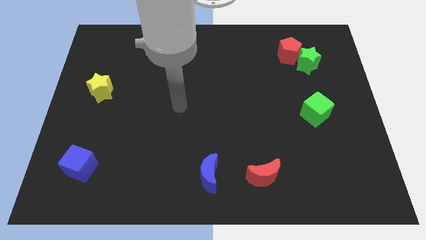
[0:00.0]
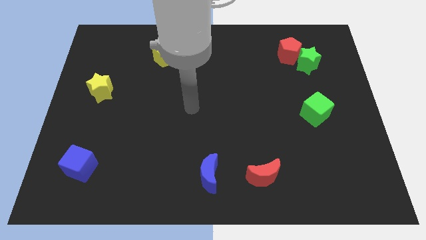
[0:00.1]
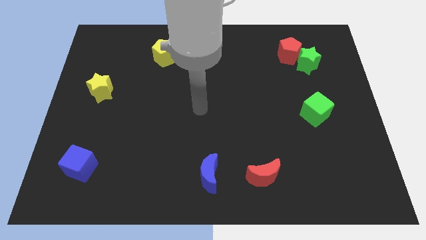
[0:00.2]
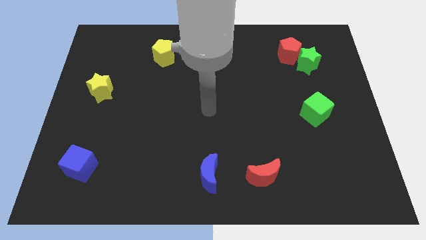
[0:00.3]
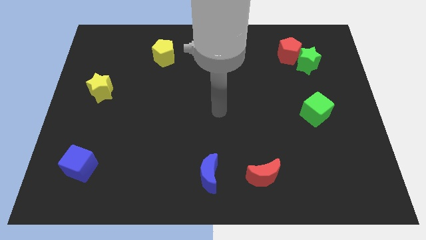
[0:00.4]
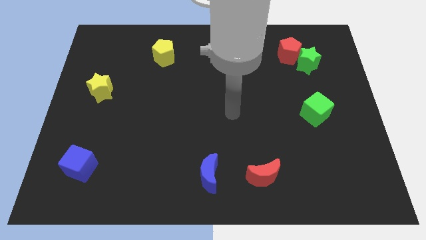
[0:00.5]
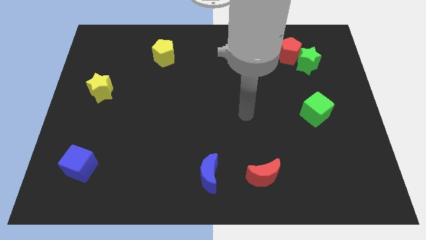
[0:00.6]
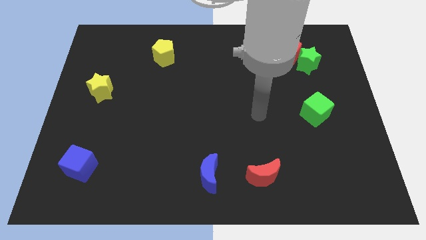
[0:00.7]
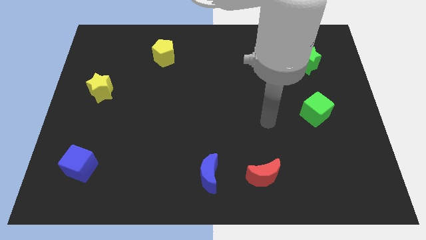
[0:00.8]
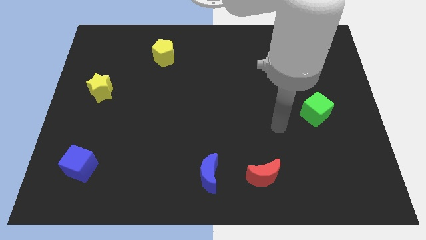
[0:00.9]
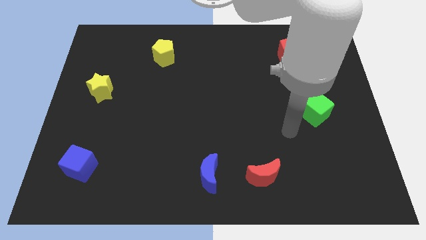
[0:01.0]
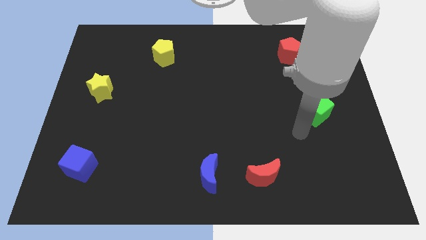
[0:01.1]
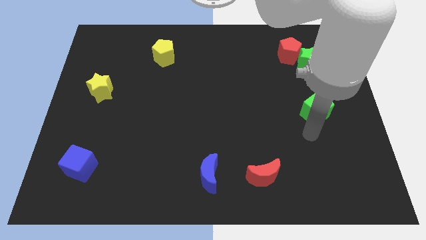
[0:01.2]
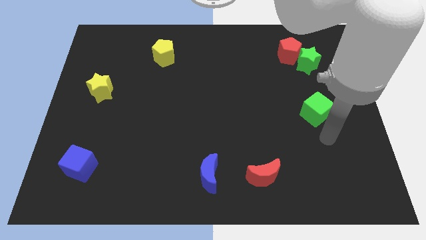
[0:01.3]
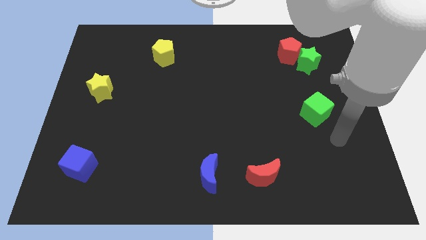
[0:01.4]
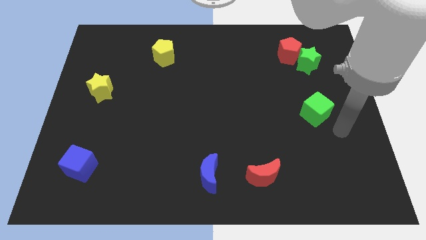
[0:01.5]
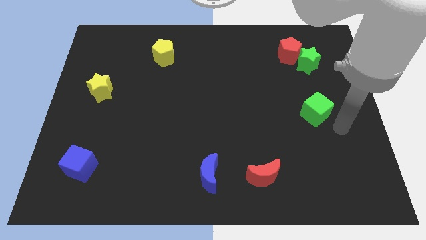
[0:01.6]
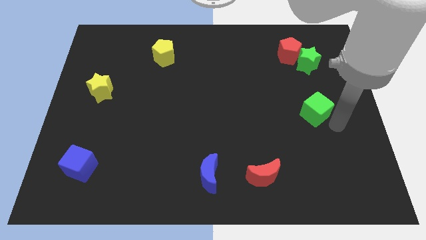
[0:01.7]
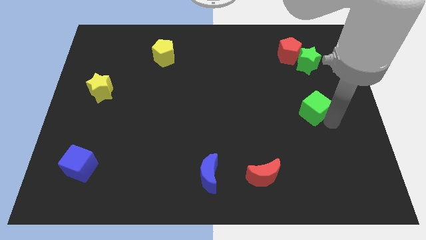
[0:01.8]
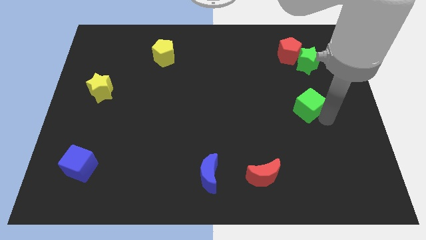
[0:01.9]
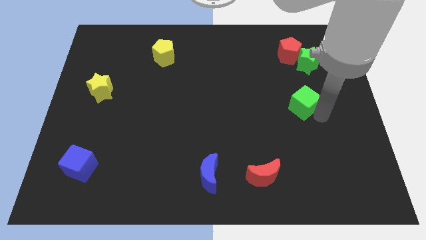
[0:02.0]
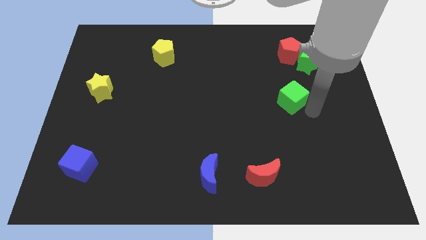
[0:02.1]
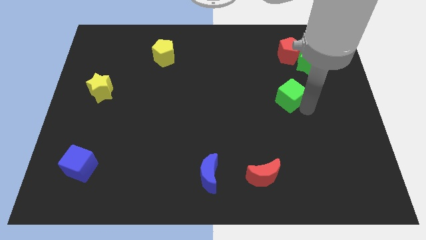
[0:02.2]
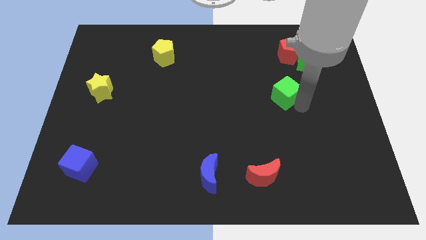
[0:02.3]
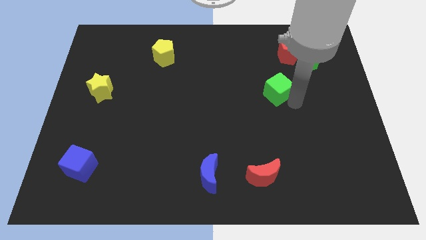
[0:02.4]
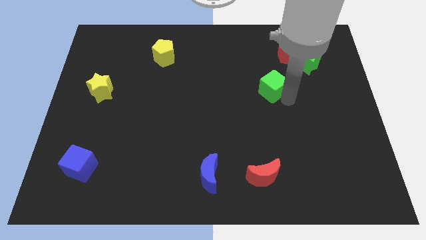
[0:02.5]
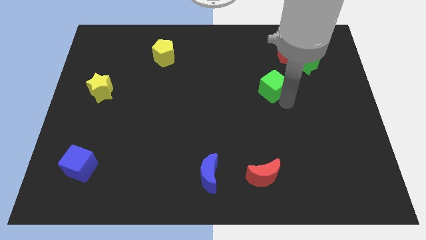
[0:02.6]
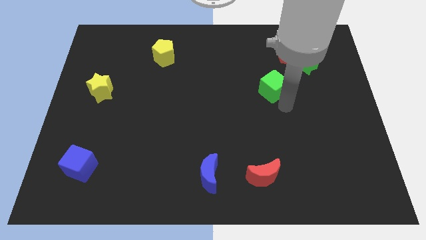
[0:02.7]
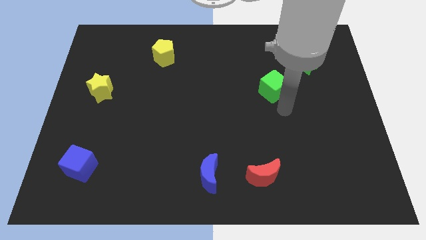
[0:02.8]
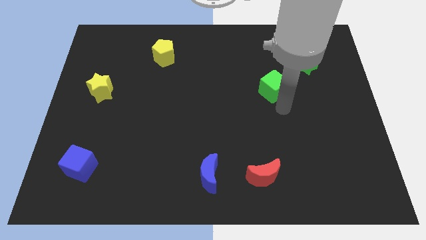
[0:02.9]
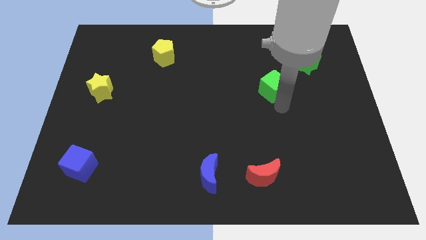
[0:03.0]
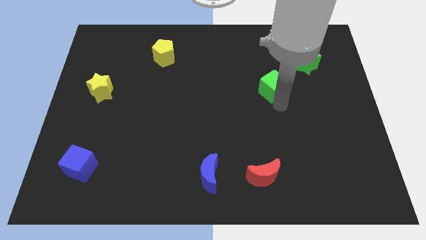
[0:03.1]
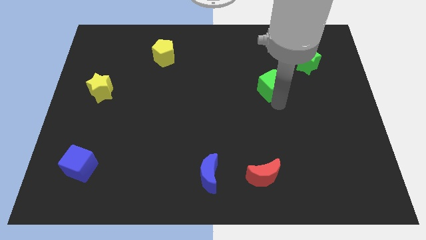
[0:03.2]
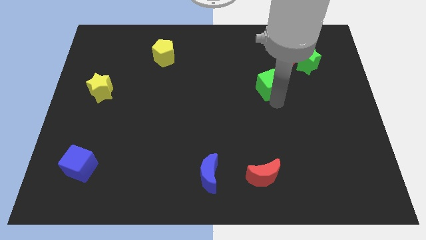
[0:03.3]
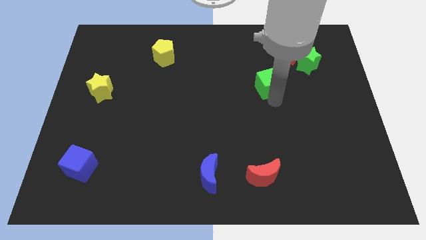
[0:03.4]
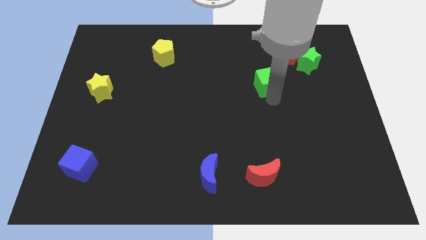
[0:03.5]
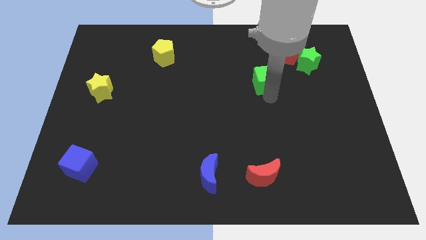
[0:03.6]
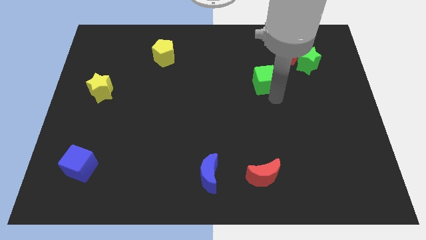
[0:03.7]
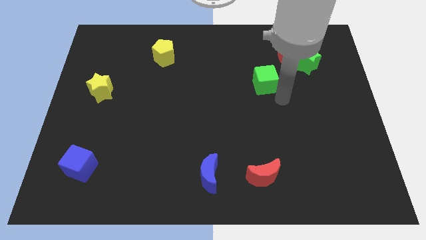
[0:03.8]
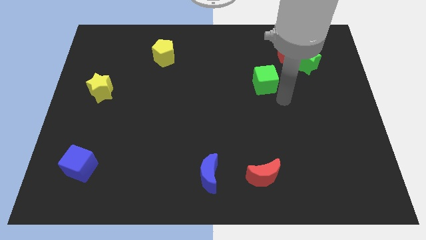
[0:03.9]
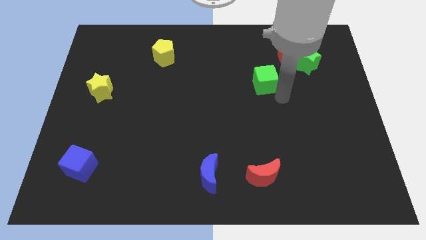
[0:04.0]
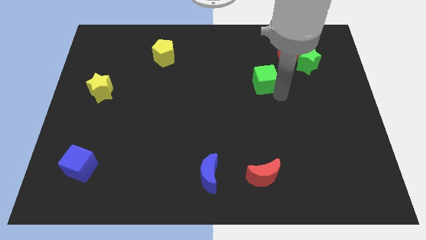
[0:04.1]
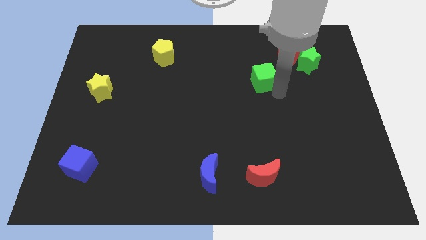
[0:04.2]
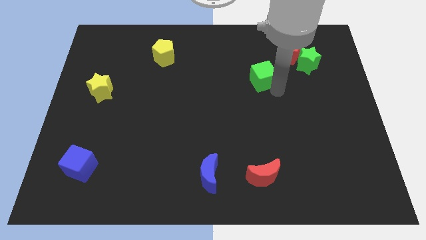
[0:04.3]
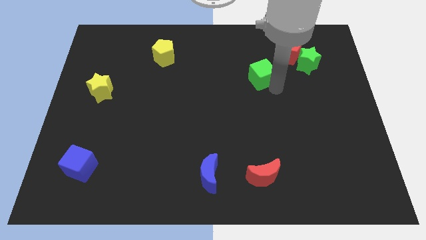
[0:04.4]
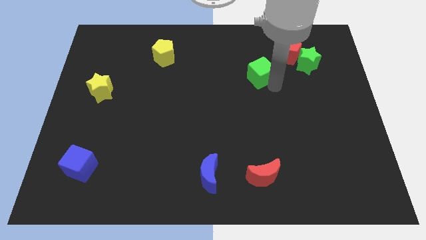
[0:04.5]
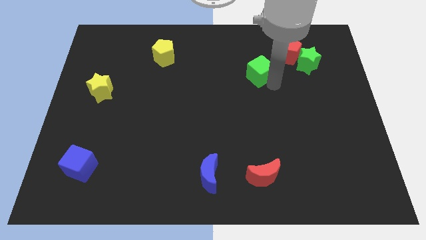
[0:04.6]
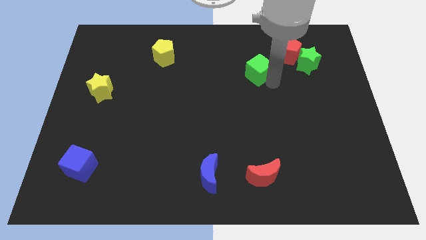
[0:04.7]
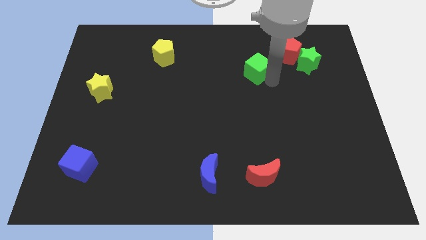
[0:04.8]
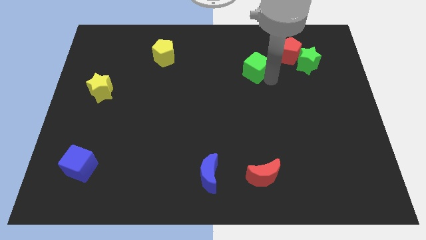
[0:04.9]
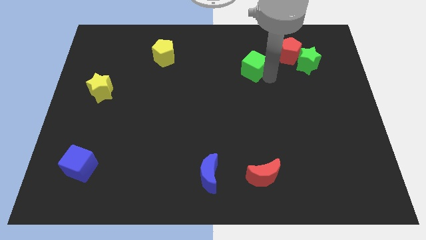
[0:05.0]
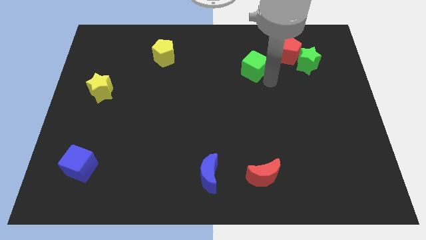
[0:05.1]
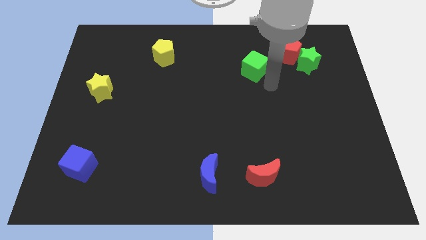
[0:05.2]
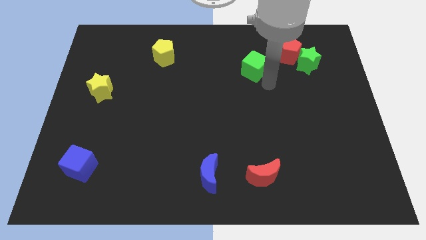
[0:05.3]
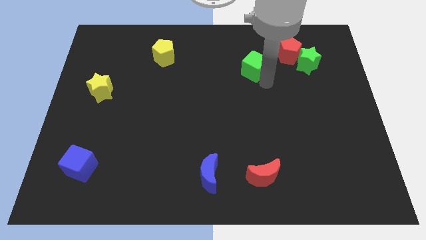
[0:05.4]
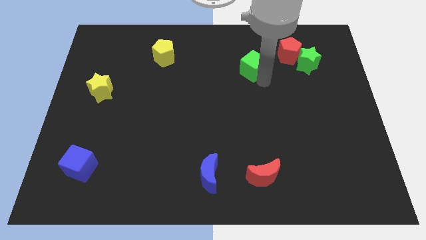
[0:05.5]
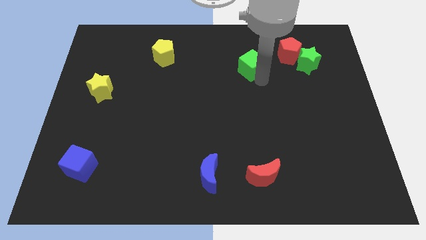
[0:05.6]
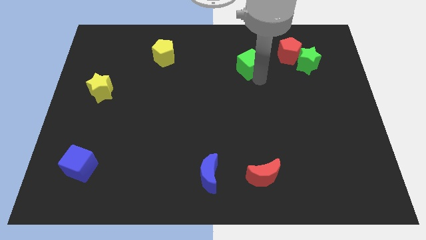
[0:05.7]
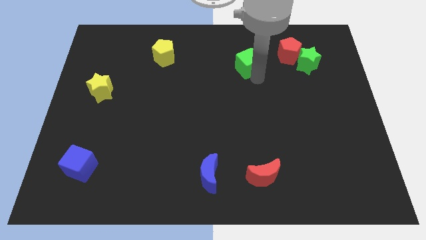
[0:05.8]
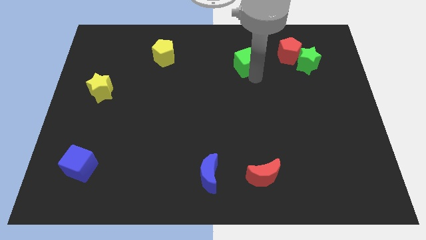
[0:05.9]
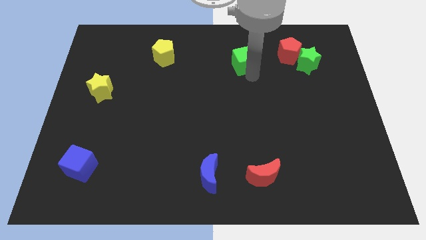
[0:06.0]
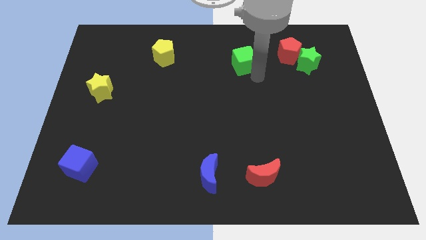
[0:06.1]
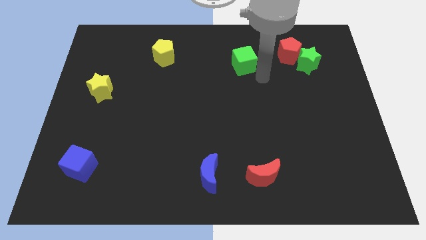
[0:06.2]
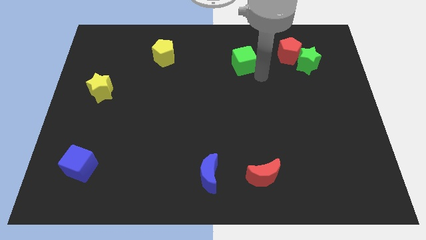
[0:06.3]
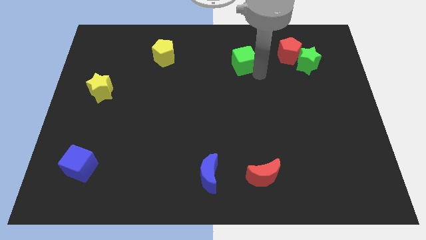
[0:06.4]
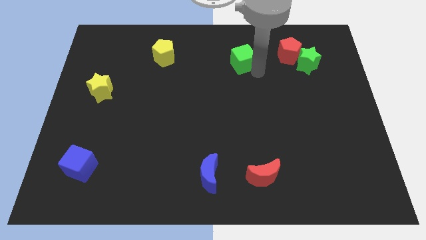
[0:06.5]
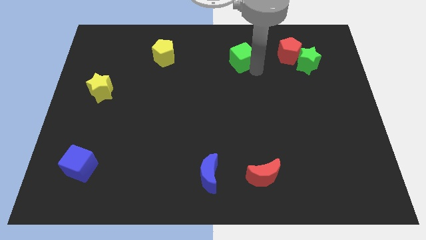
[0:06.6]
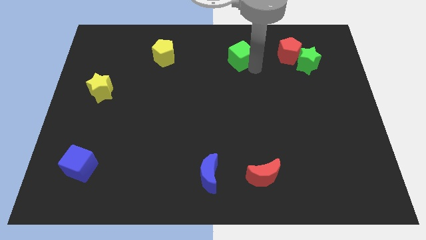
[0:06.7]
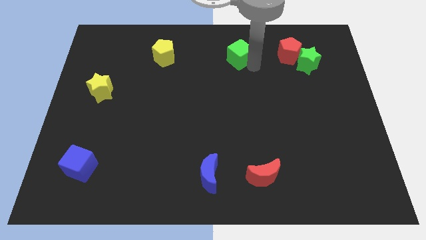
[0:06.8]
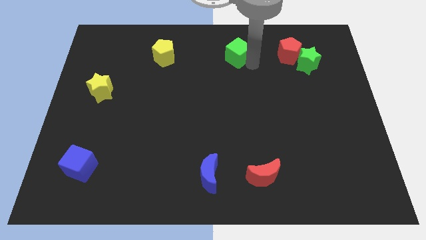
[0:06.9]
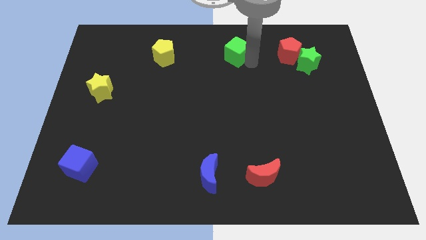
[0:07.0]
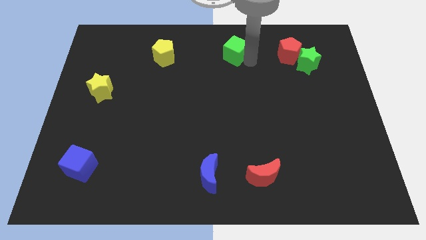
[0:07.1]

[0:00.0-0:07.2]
push the green cube to the towards your base
